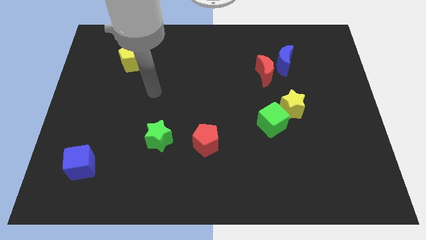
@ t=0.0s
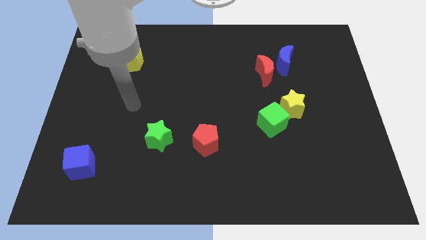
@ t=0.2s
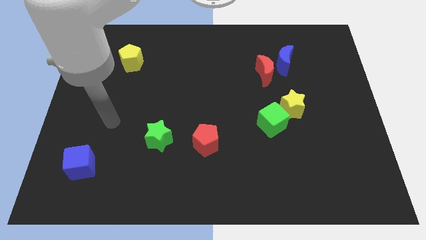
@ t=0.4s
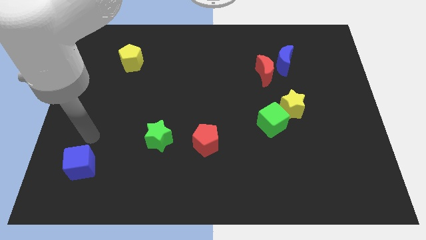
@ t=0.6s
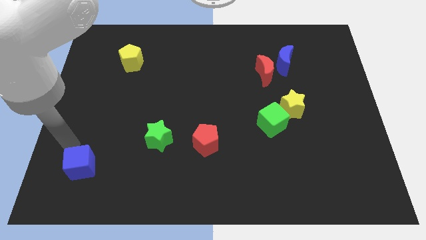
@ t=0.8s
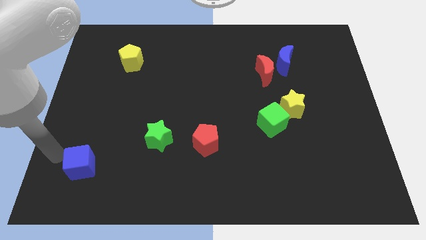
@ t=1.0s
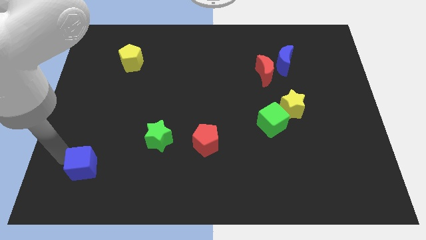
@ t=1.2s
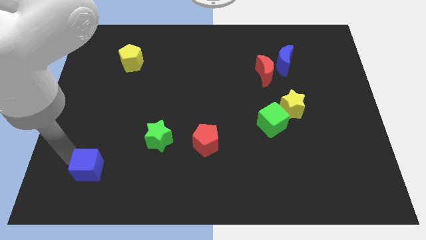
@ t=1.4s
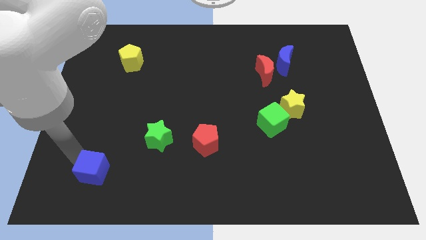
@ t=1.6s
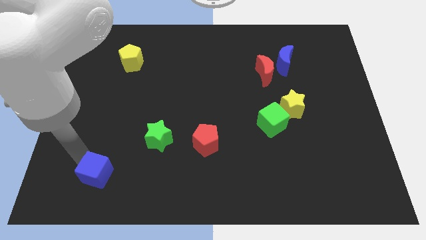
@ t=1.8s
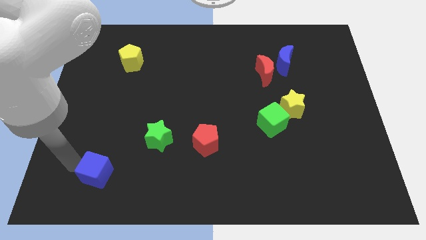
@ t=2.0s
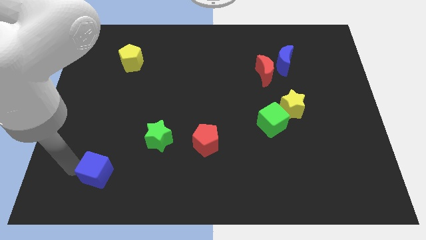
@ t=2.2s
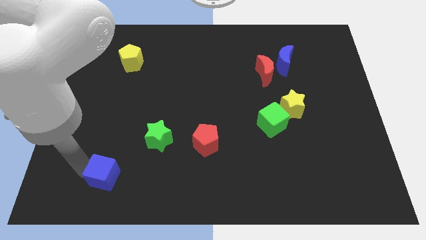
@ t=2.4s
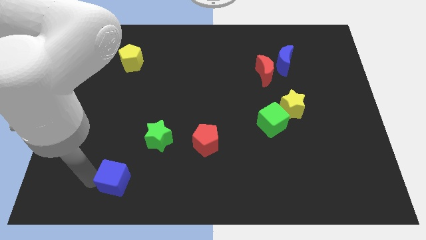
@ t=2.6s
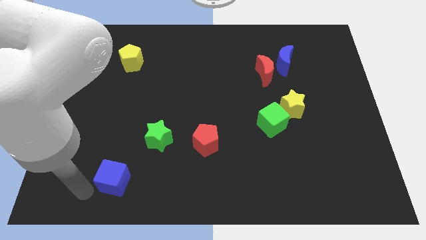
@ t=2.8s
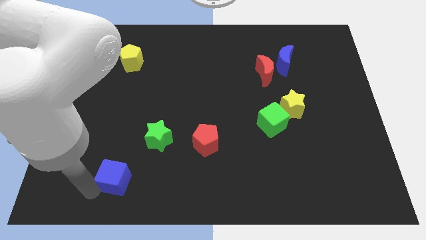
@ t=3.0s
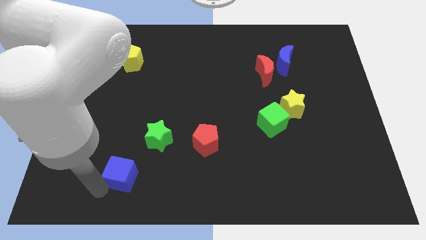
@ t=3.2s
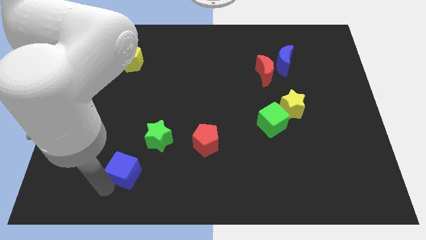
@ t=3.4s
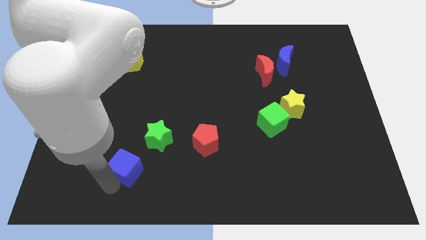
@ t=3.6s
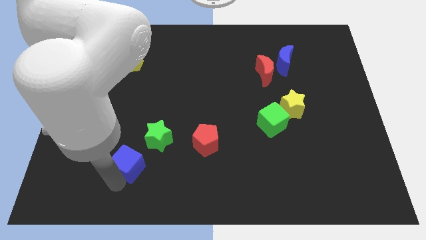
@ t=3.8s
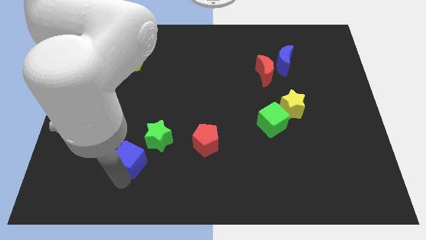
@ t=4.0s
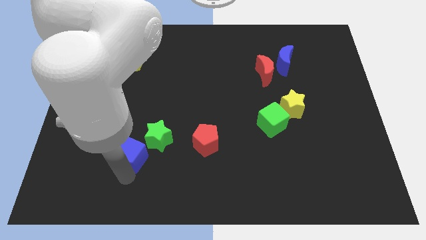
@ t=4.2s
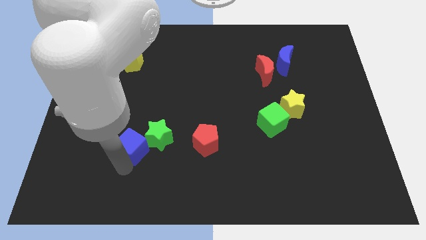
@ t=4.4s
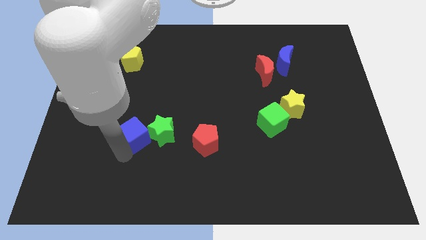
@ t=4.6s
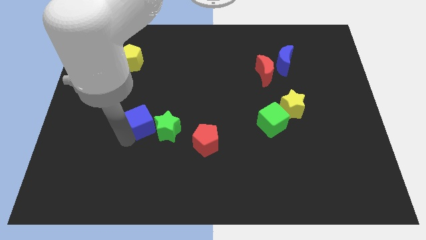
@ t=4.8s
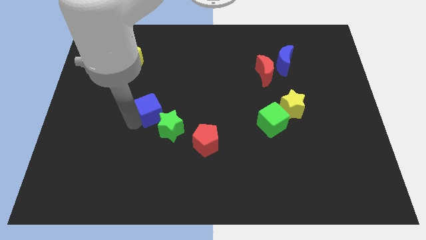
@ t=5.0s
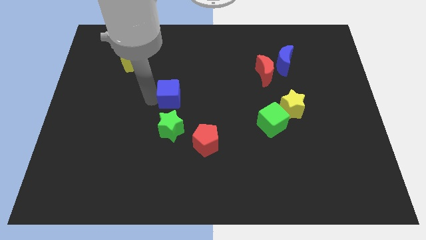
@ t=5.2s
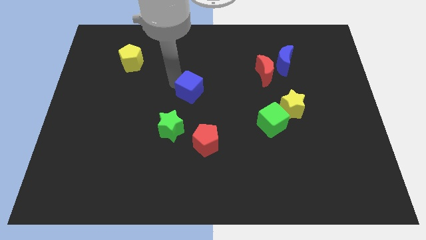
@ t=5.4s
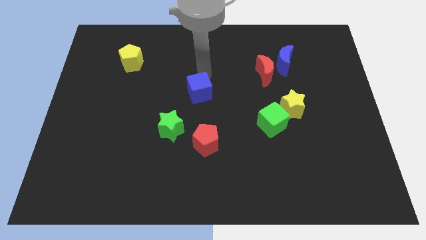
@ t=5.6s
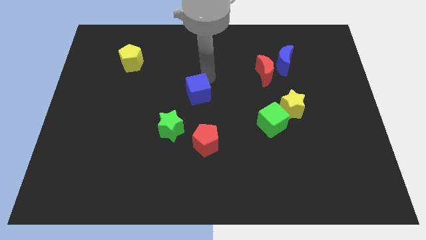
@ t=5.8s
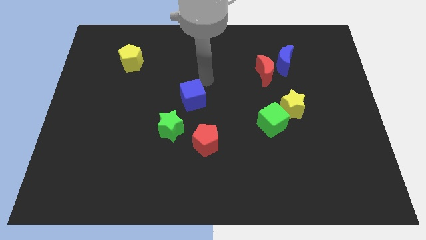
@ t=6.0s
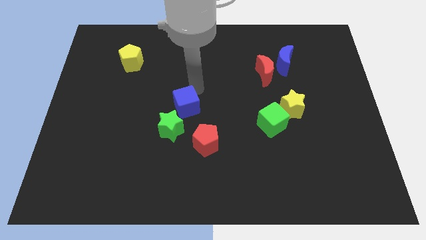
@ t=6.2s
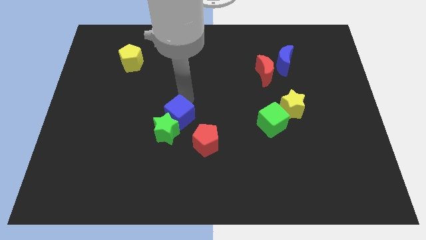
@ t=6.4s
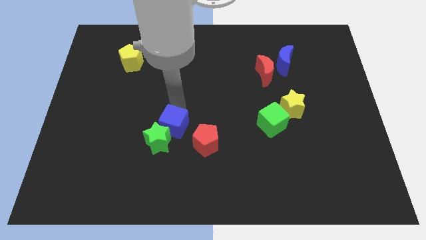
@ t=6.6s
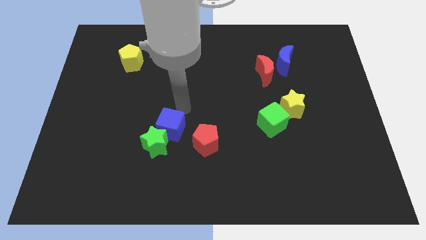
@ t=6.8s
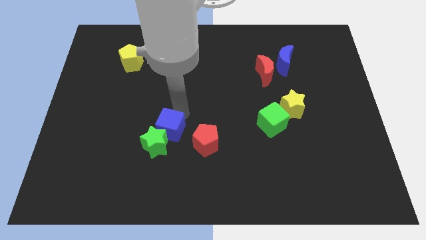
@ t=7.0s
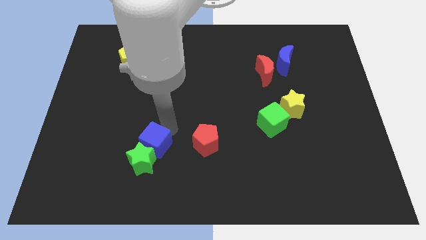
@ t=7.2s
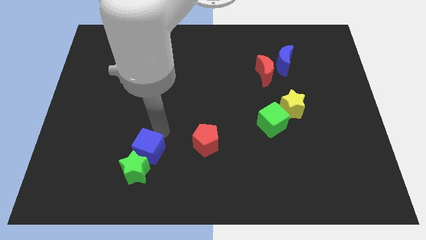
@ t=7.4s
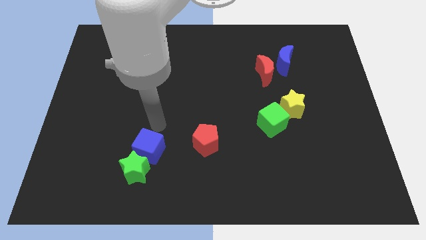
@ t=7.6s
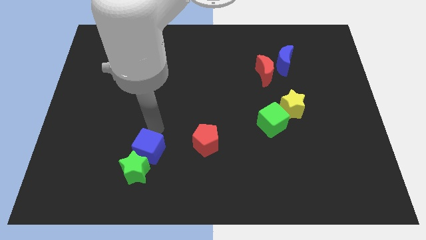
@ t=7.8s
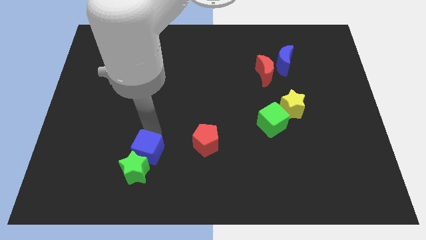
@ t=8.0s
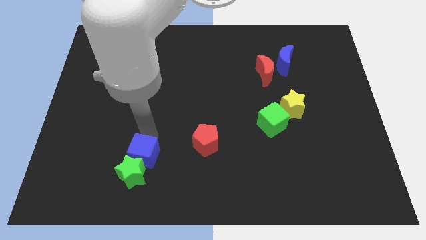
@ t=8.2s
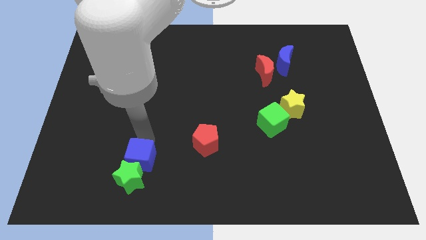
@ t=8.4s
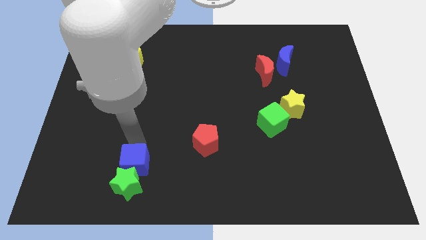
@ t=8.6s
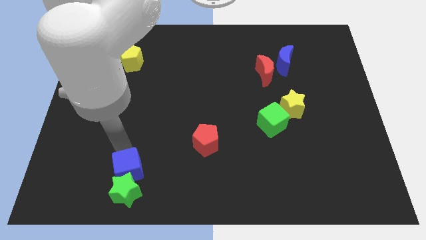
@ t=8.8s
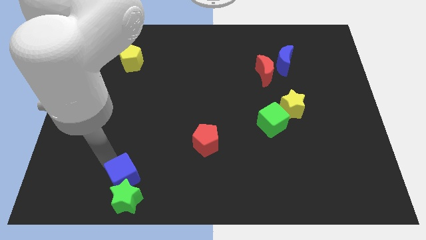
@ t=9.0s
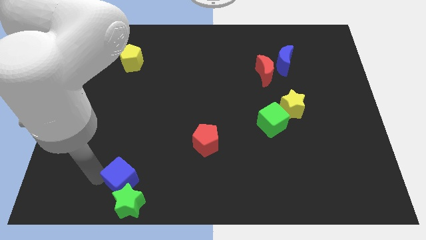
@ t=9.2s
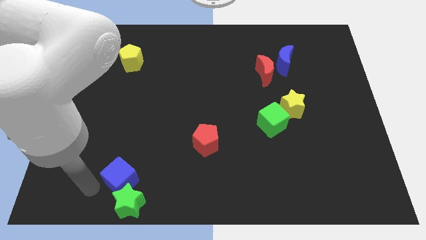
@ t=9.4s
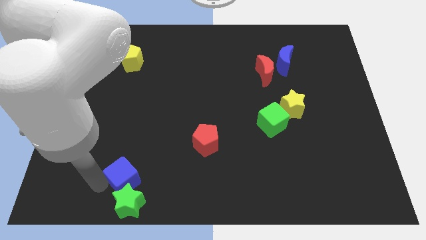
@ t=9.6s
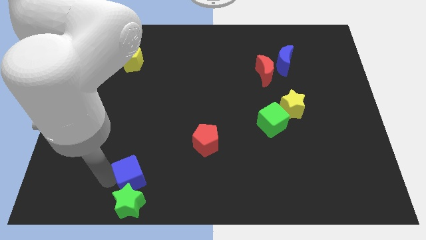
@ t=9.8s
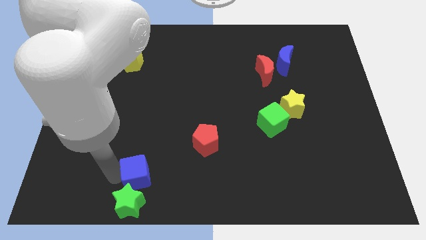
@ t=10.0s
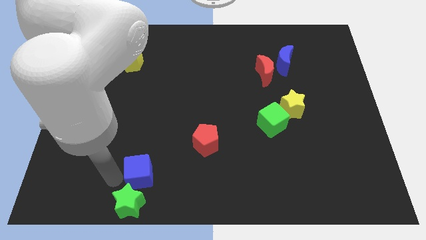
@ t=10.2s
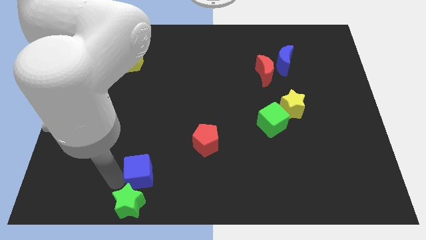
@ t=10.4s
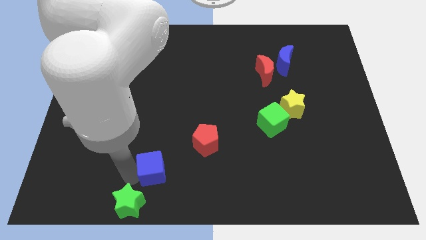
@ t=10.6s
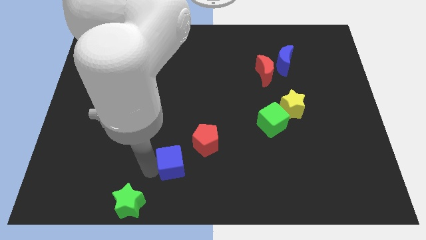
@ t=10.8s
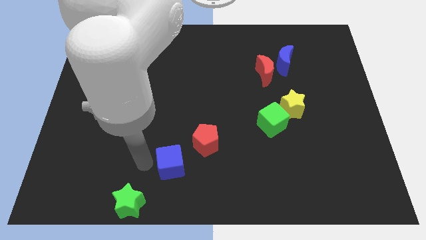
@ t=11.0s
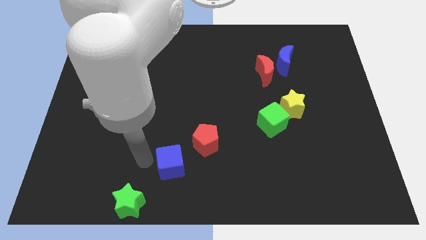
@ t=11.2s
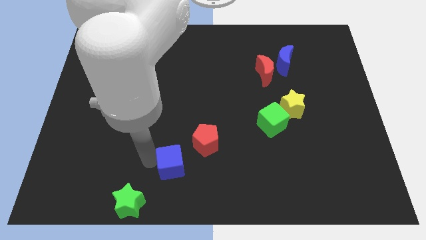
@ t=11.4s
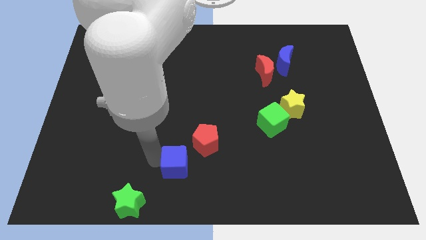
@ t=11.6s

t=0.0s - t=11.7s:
push the blue cube to the right

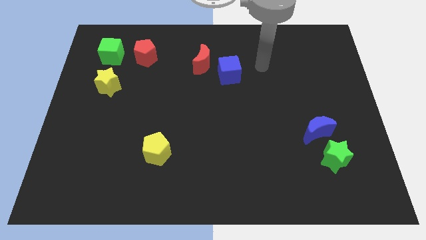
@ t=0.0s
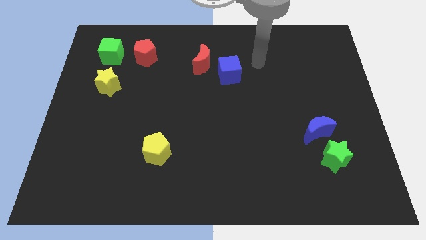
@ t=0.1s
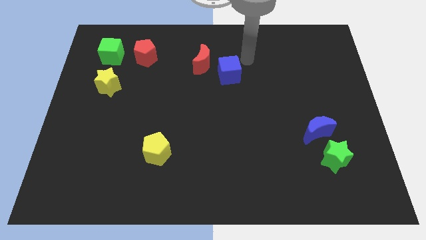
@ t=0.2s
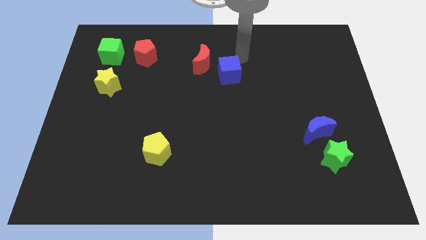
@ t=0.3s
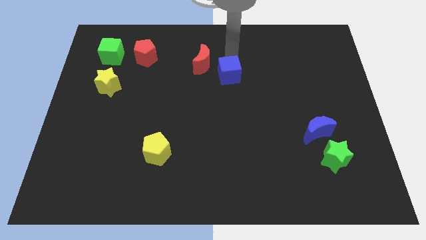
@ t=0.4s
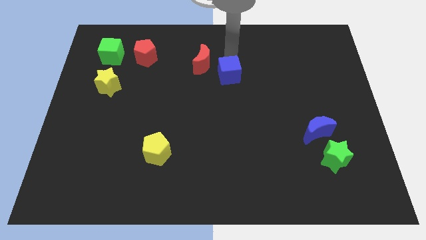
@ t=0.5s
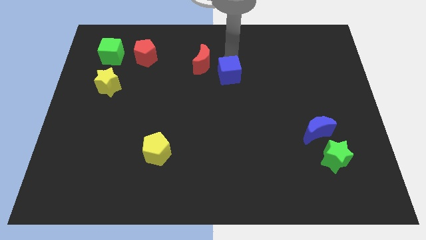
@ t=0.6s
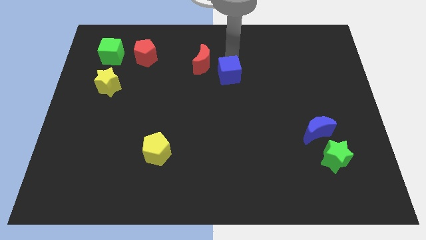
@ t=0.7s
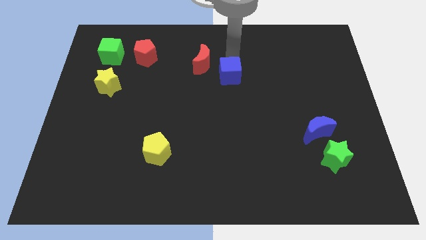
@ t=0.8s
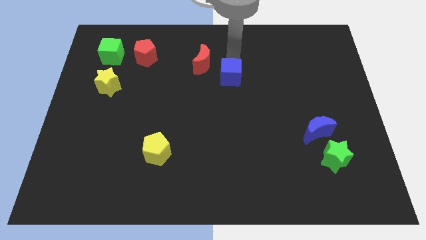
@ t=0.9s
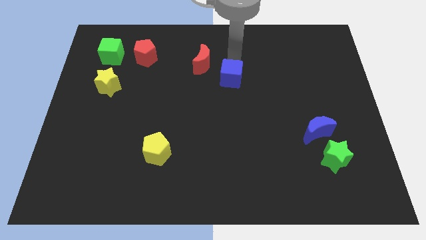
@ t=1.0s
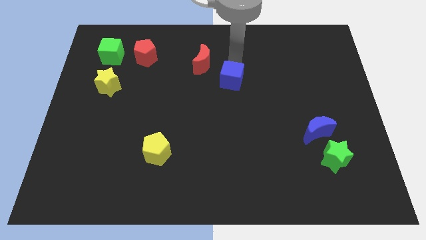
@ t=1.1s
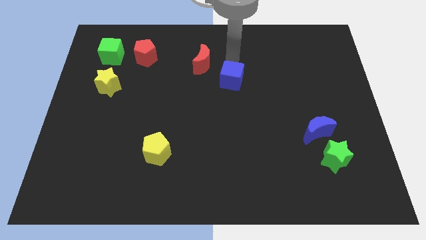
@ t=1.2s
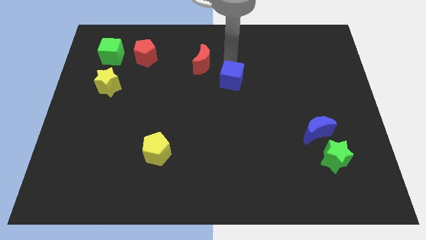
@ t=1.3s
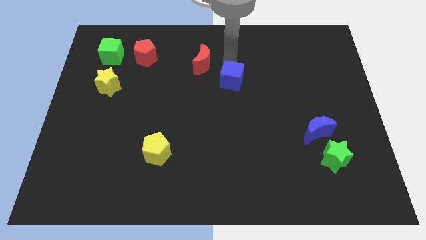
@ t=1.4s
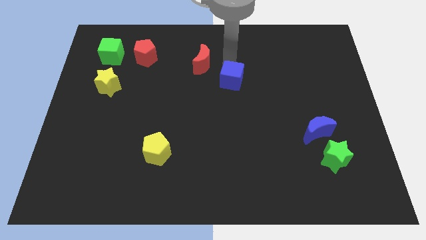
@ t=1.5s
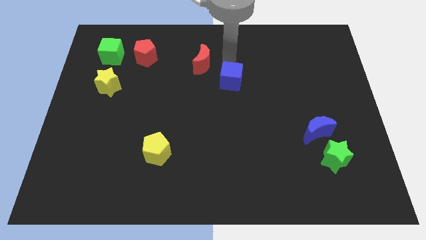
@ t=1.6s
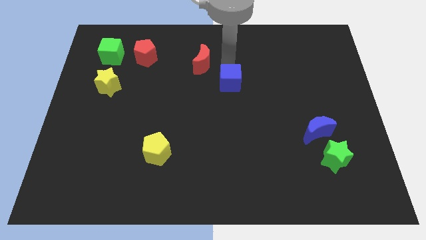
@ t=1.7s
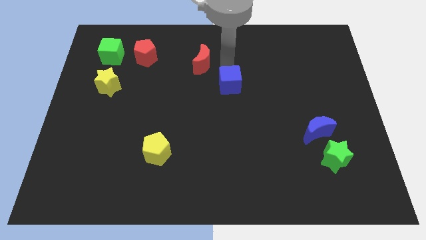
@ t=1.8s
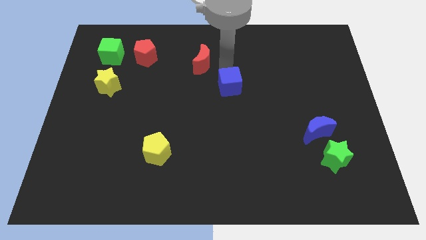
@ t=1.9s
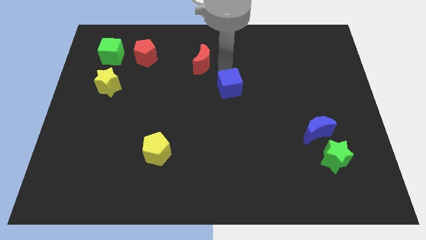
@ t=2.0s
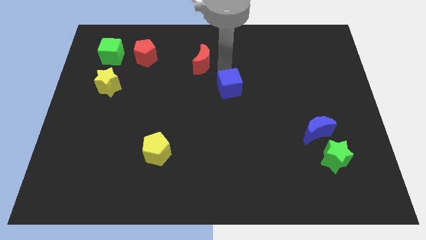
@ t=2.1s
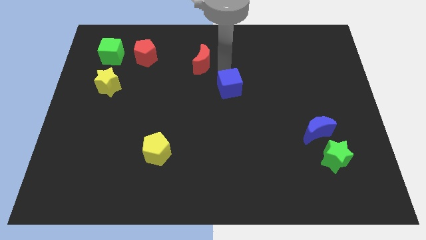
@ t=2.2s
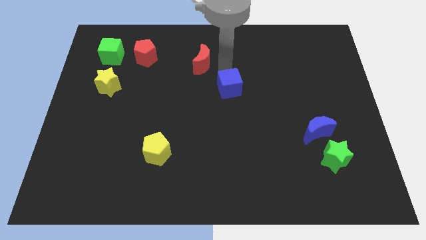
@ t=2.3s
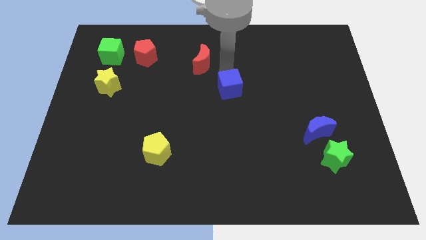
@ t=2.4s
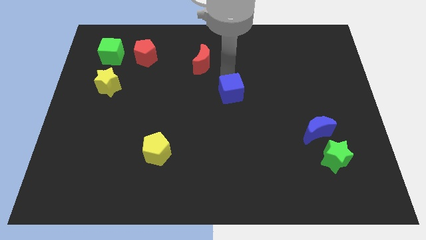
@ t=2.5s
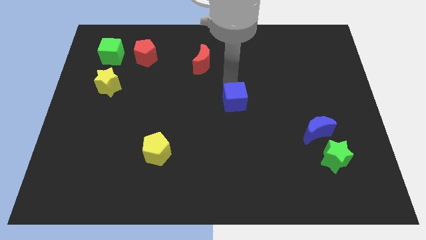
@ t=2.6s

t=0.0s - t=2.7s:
push the blue cube a little downwards
